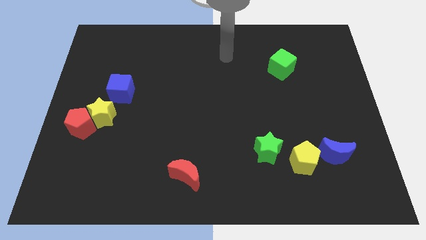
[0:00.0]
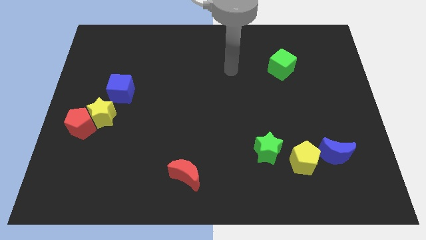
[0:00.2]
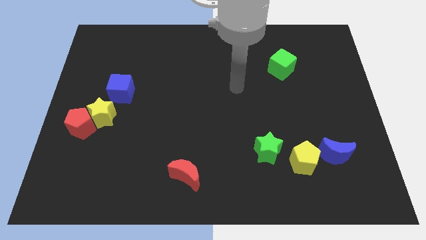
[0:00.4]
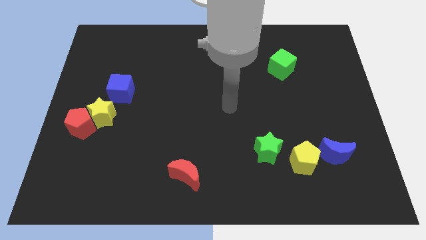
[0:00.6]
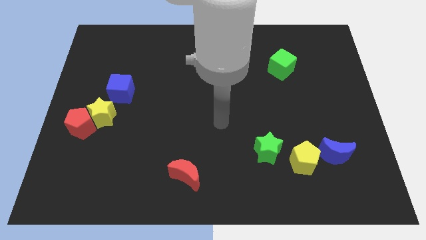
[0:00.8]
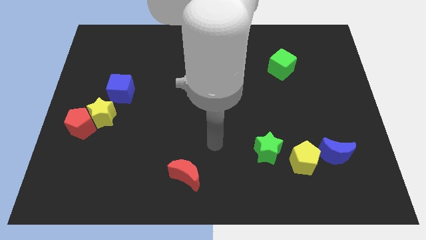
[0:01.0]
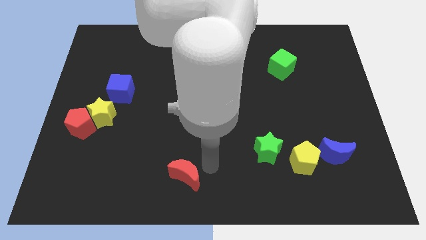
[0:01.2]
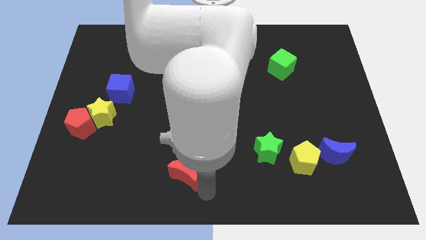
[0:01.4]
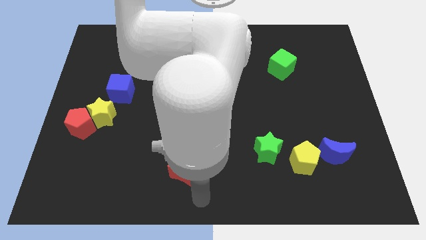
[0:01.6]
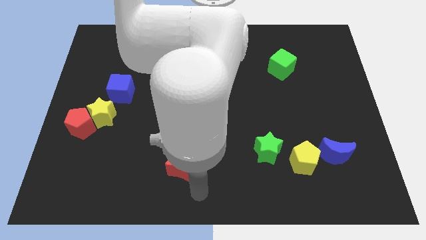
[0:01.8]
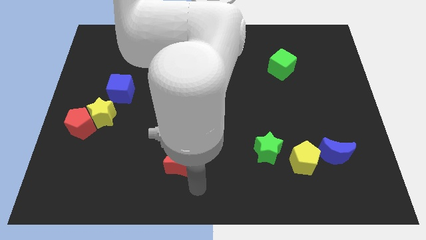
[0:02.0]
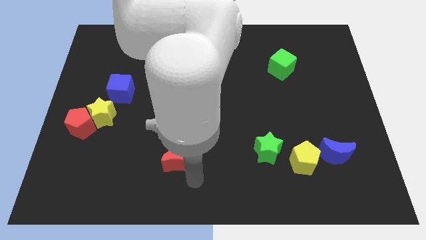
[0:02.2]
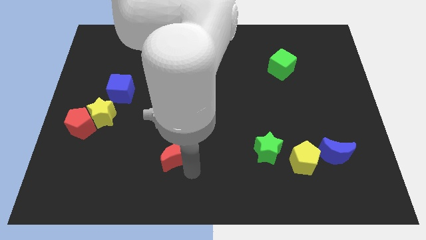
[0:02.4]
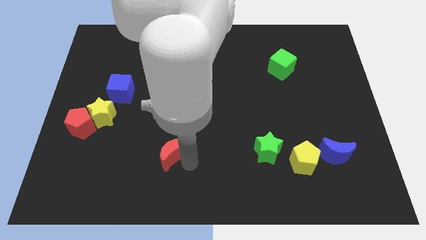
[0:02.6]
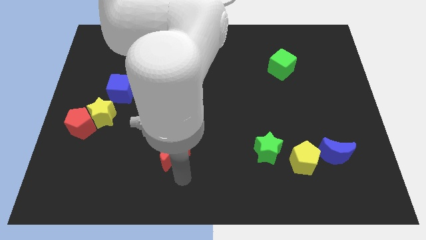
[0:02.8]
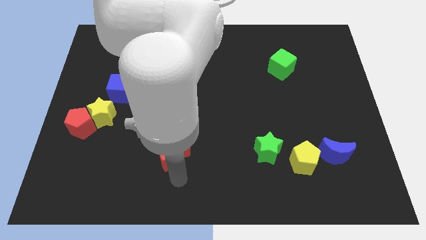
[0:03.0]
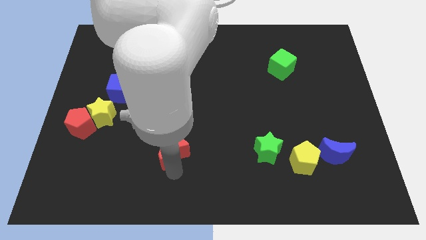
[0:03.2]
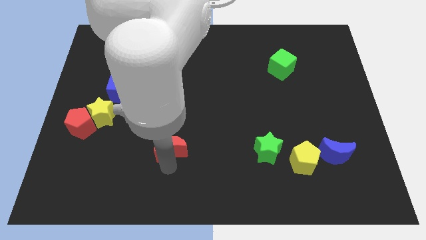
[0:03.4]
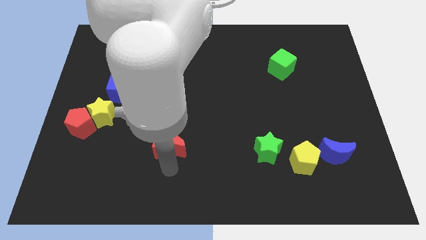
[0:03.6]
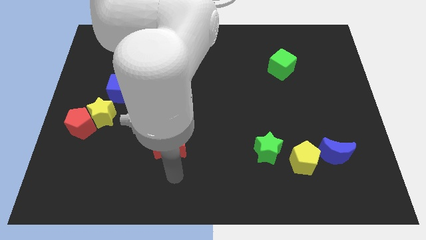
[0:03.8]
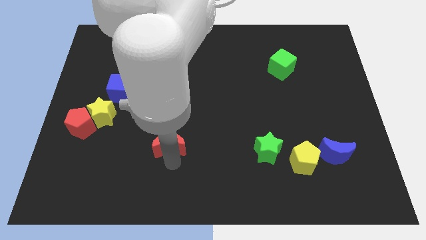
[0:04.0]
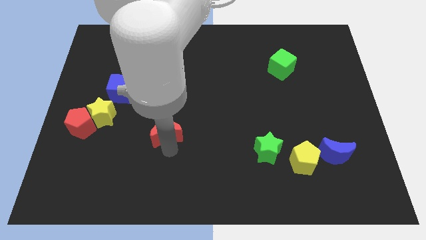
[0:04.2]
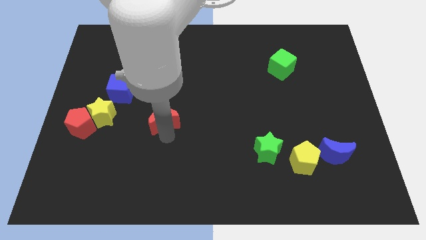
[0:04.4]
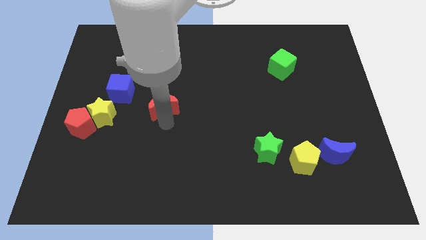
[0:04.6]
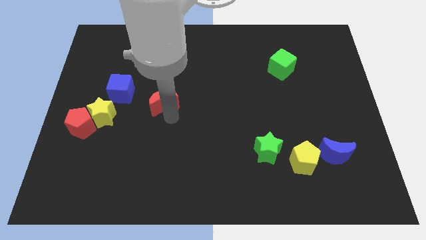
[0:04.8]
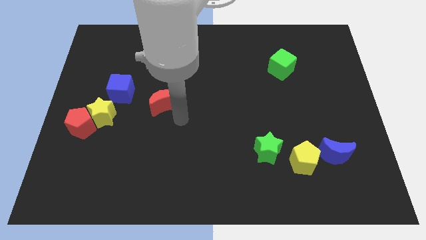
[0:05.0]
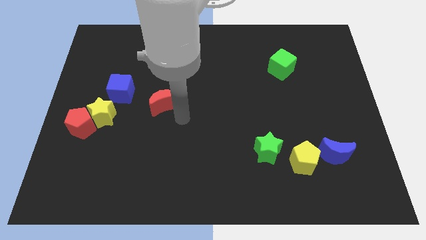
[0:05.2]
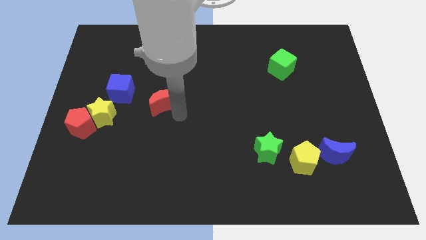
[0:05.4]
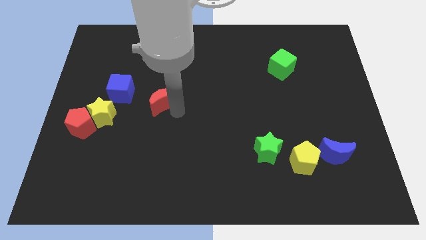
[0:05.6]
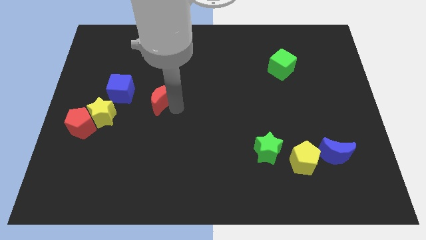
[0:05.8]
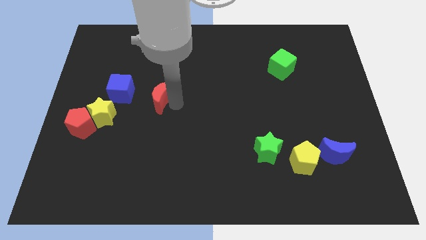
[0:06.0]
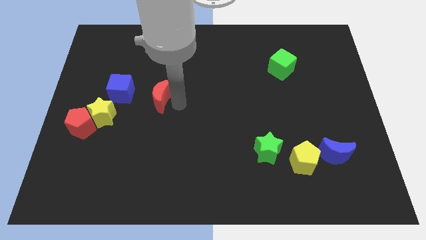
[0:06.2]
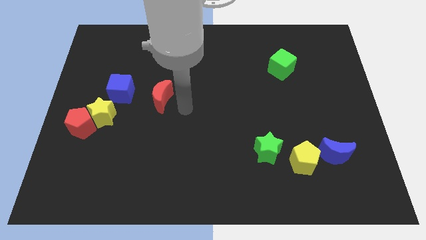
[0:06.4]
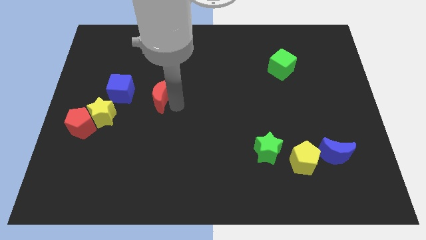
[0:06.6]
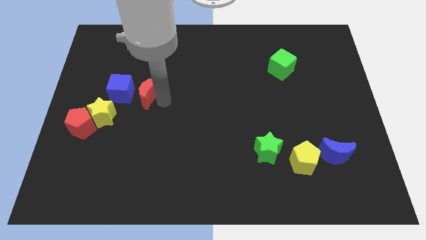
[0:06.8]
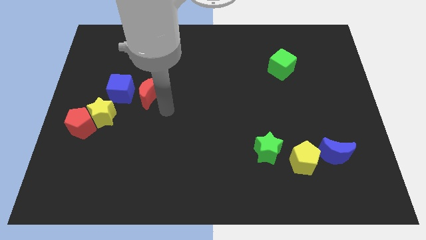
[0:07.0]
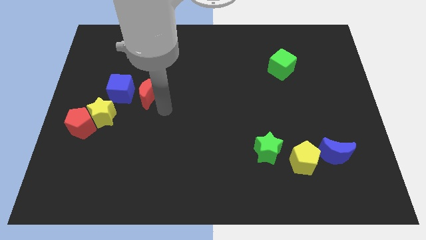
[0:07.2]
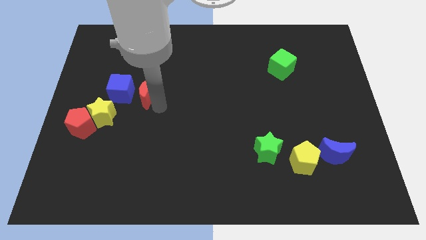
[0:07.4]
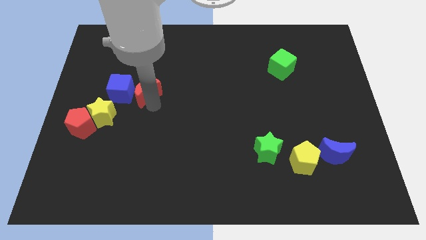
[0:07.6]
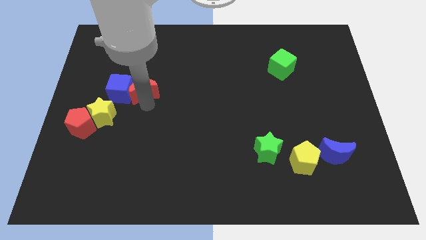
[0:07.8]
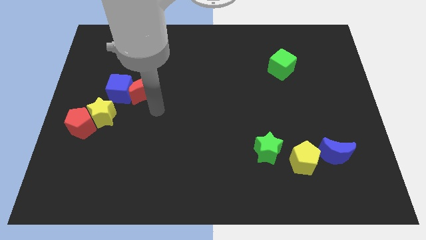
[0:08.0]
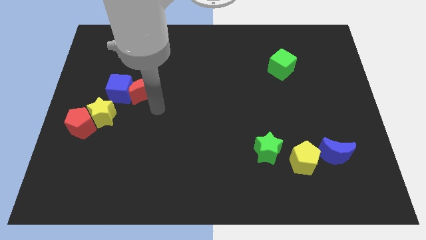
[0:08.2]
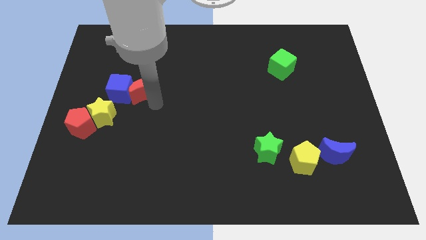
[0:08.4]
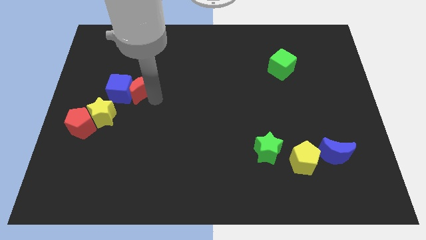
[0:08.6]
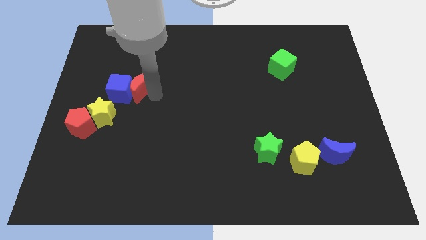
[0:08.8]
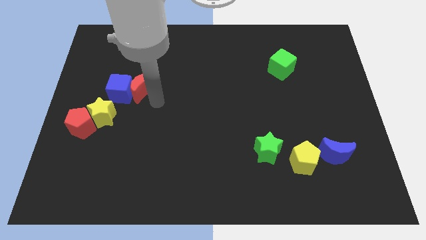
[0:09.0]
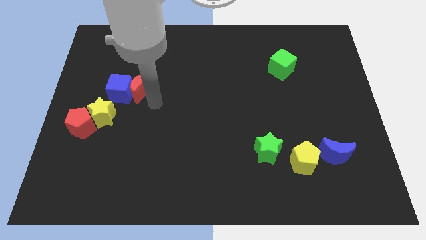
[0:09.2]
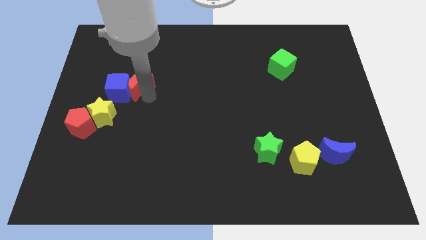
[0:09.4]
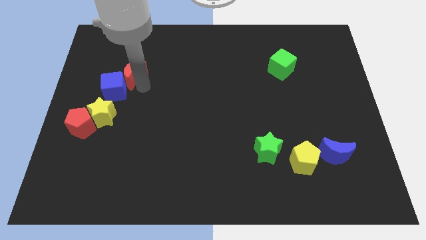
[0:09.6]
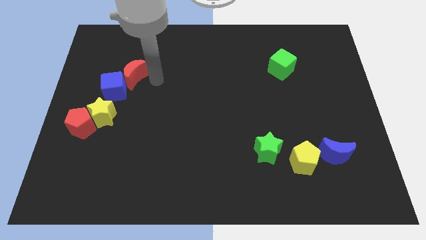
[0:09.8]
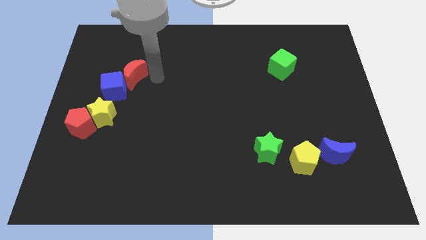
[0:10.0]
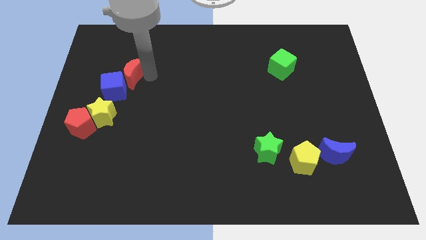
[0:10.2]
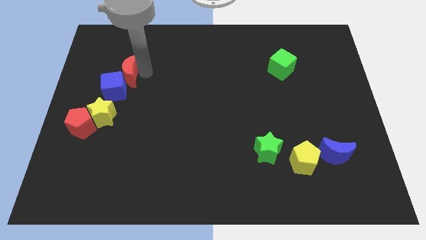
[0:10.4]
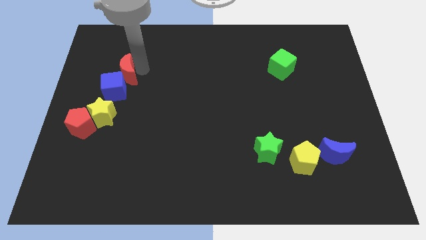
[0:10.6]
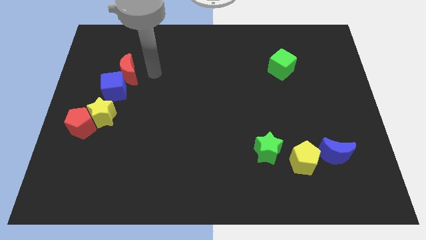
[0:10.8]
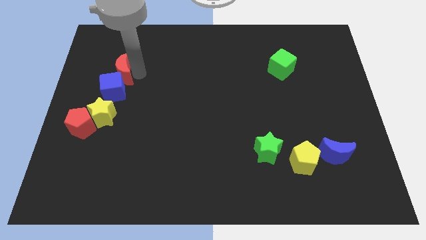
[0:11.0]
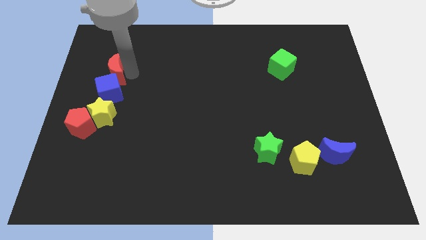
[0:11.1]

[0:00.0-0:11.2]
put the red moon to the top left side of the blue cube

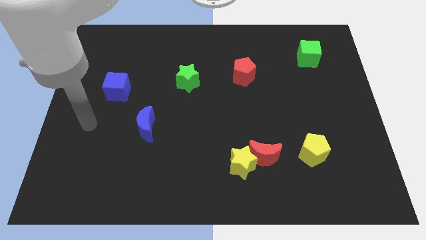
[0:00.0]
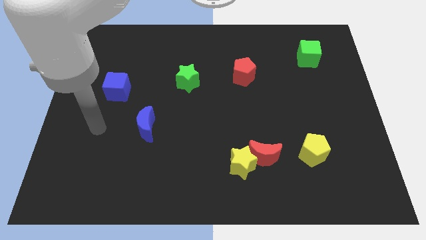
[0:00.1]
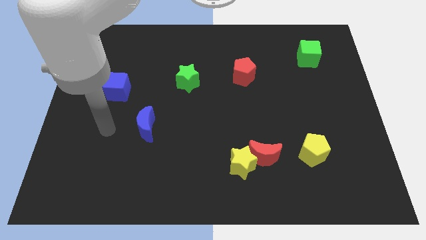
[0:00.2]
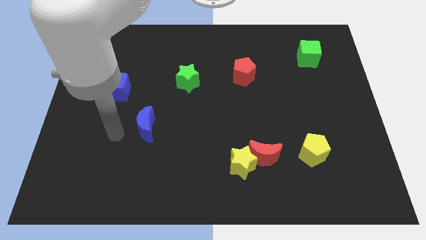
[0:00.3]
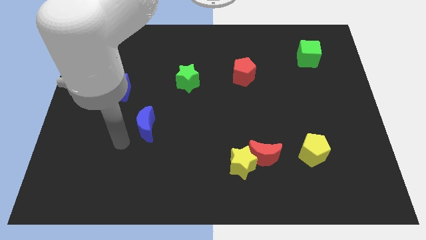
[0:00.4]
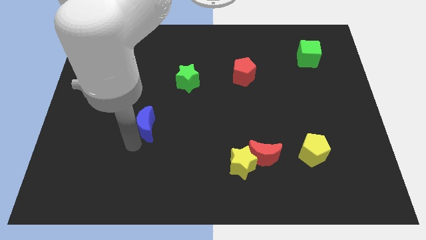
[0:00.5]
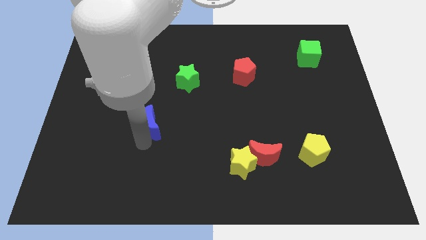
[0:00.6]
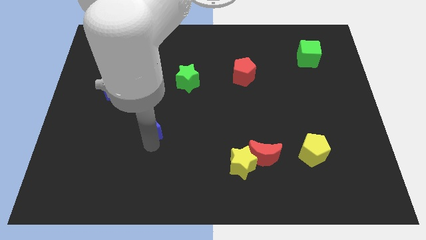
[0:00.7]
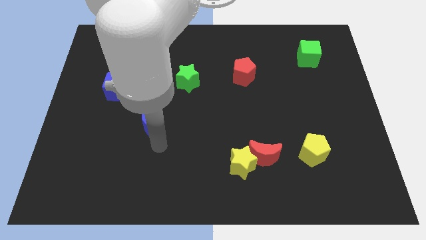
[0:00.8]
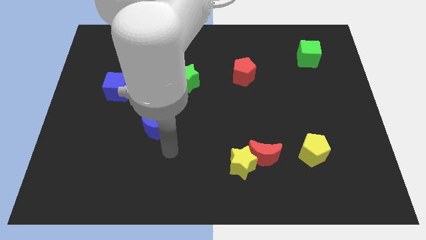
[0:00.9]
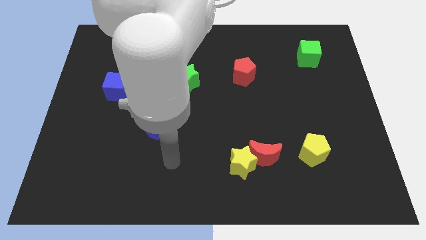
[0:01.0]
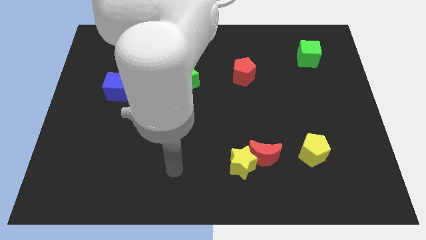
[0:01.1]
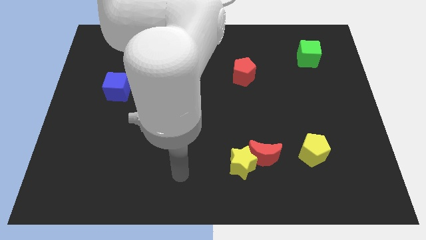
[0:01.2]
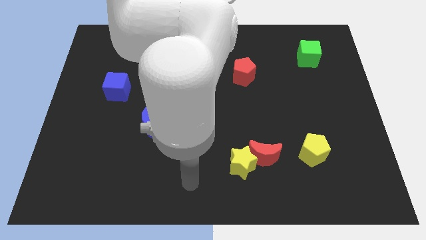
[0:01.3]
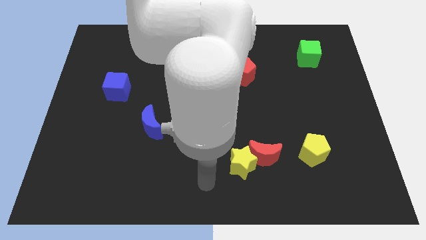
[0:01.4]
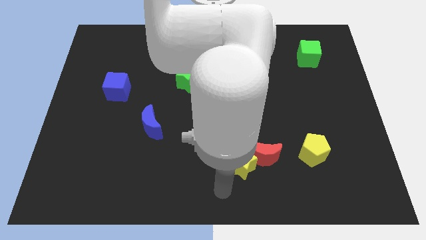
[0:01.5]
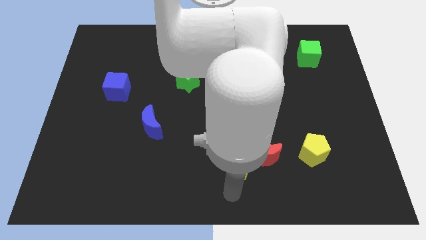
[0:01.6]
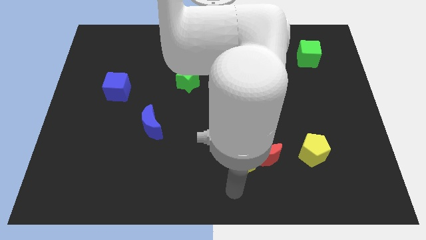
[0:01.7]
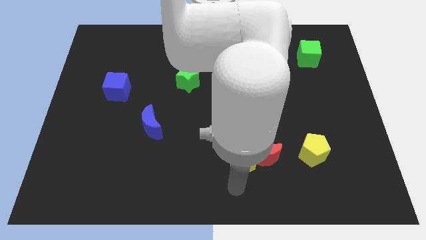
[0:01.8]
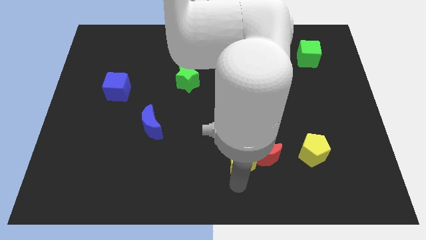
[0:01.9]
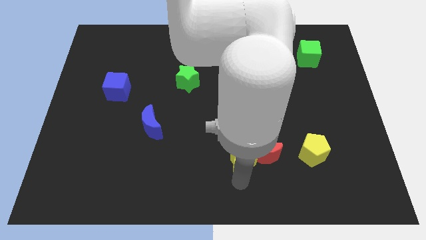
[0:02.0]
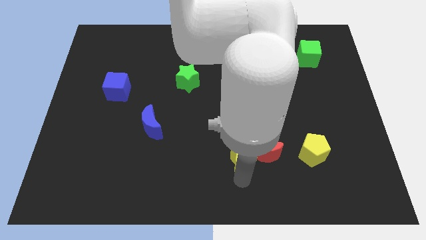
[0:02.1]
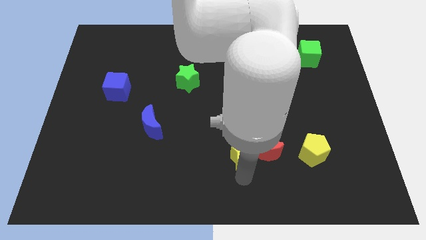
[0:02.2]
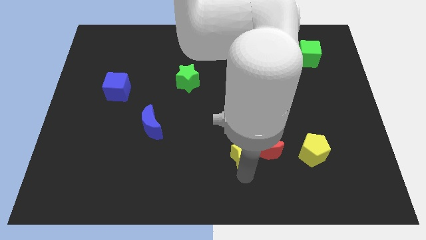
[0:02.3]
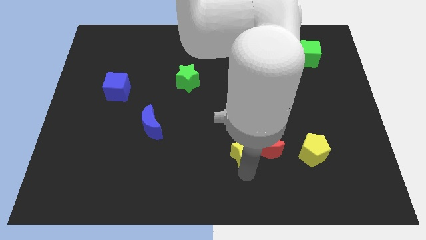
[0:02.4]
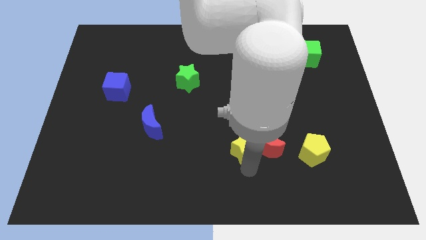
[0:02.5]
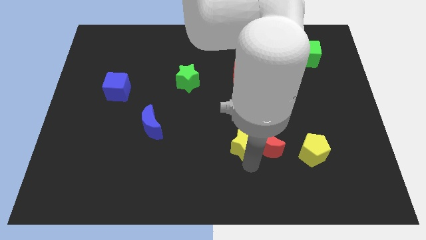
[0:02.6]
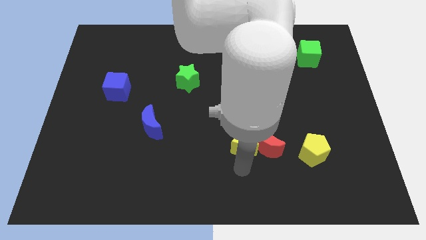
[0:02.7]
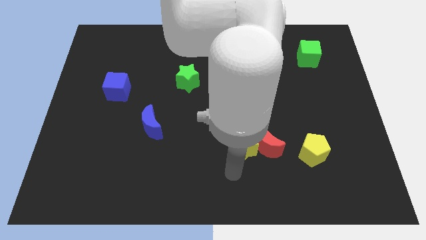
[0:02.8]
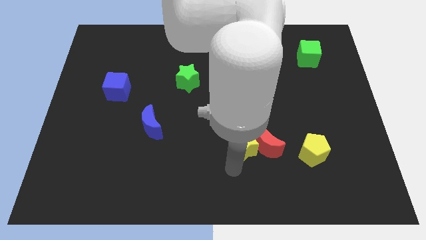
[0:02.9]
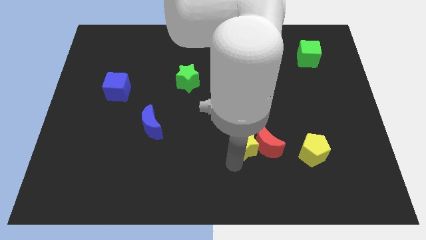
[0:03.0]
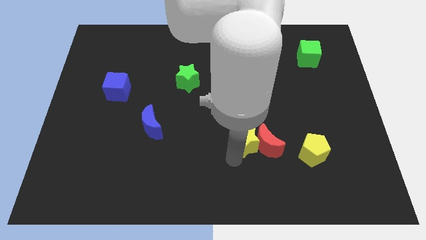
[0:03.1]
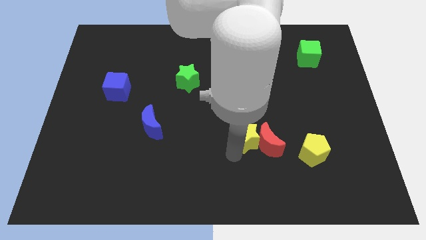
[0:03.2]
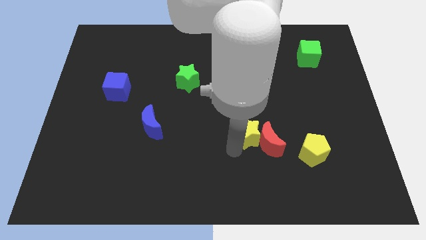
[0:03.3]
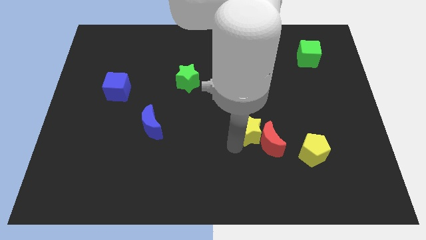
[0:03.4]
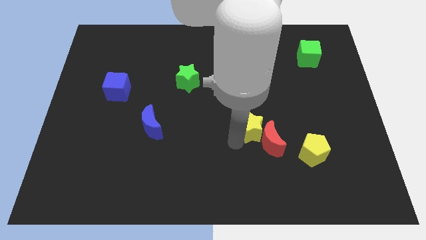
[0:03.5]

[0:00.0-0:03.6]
move the yellow star to the top side of the red moon
